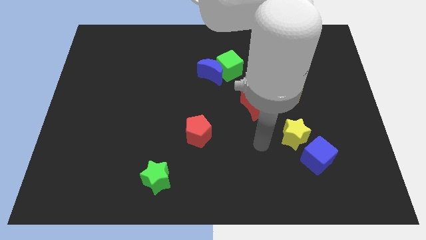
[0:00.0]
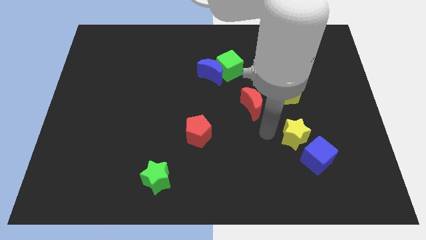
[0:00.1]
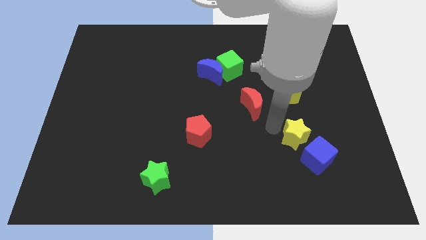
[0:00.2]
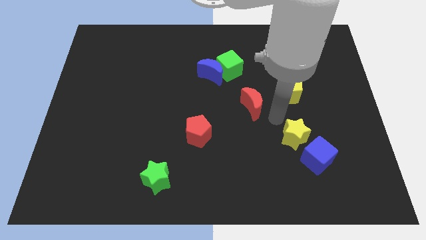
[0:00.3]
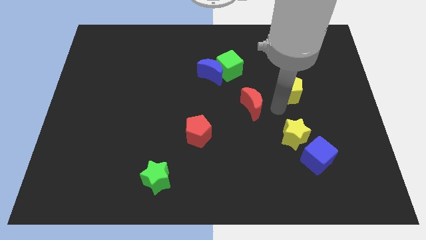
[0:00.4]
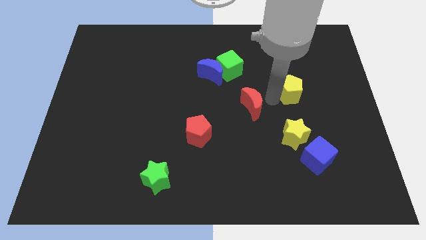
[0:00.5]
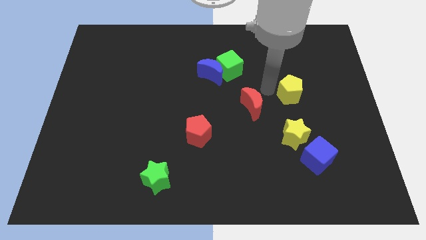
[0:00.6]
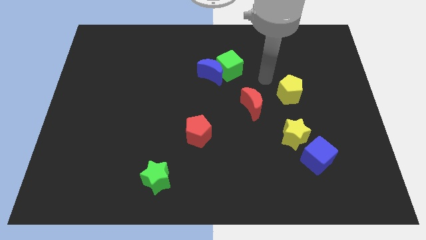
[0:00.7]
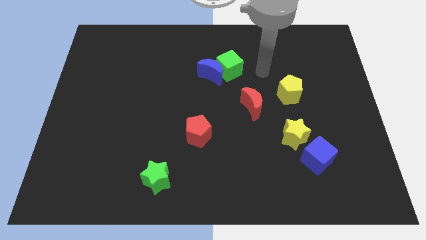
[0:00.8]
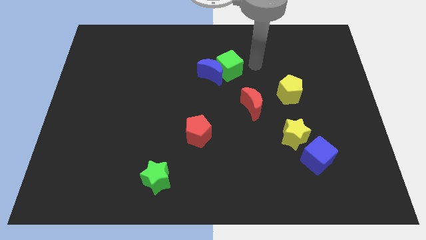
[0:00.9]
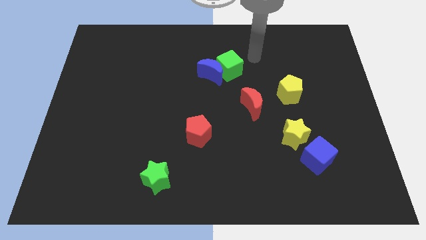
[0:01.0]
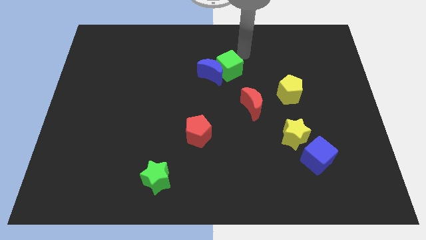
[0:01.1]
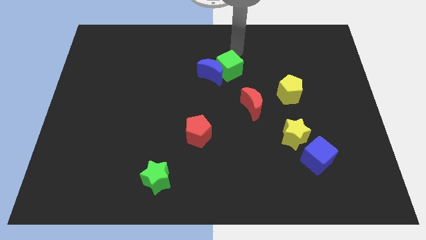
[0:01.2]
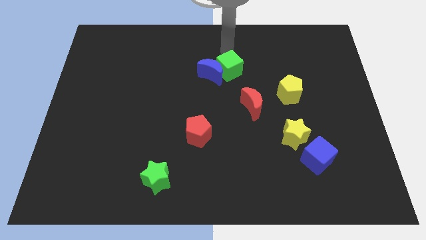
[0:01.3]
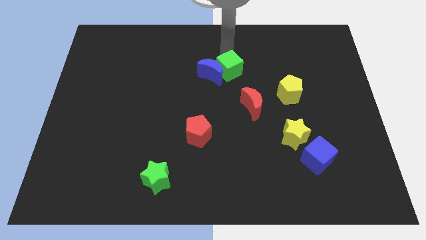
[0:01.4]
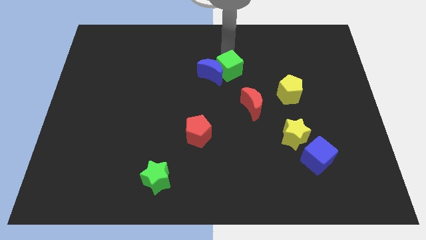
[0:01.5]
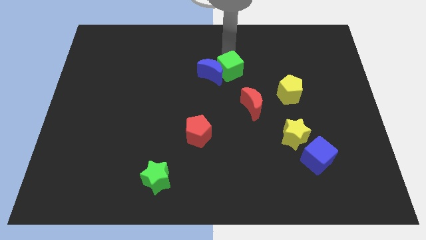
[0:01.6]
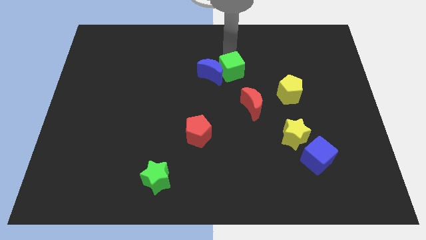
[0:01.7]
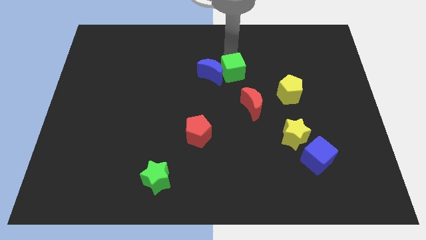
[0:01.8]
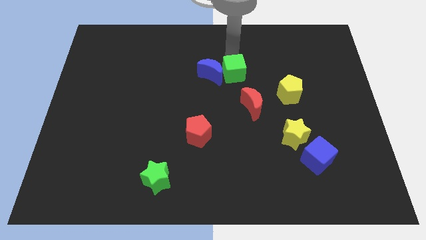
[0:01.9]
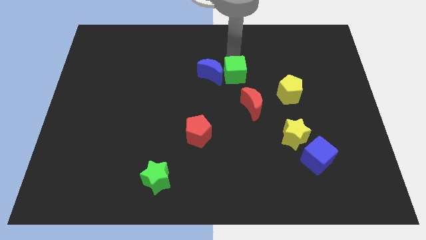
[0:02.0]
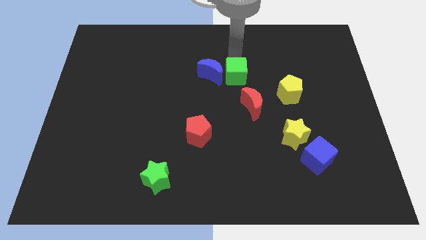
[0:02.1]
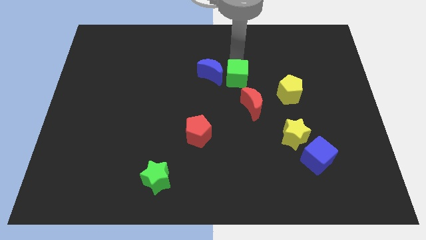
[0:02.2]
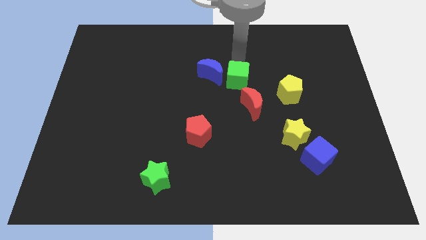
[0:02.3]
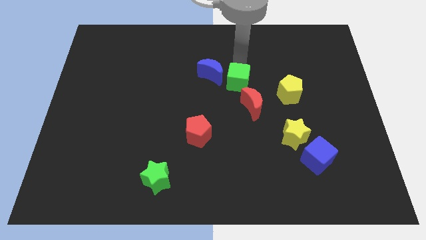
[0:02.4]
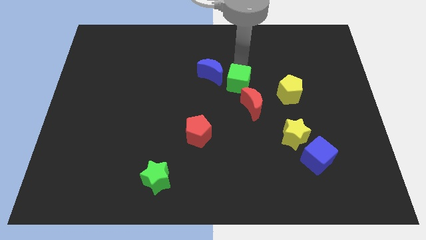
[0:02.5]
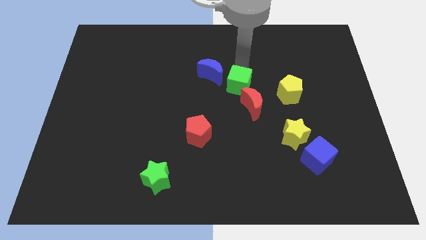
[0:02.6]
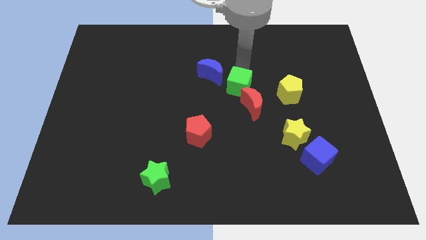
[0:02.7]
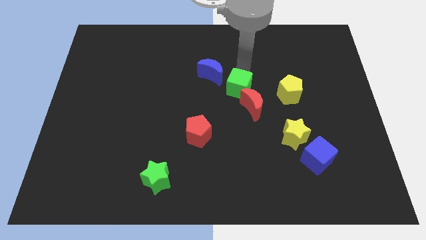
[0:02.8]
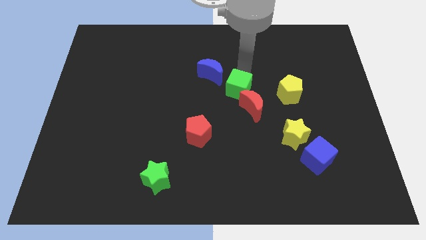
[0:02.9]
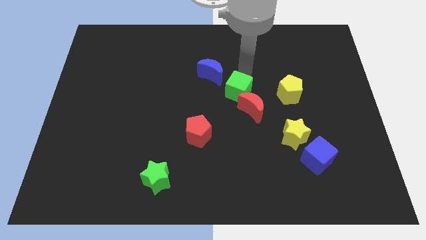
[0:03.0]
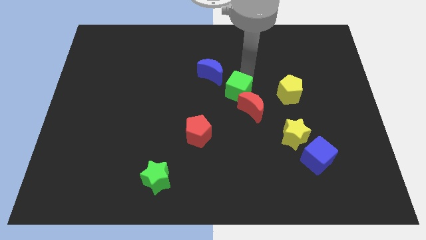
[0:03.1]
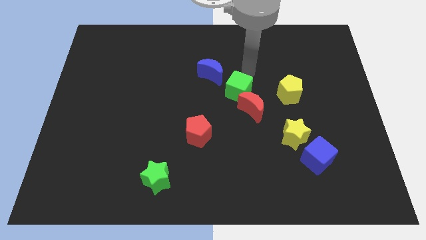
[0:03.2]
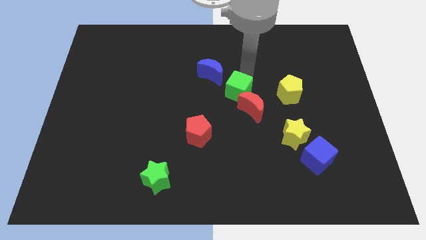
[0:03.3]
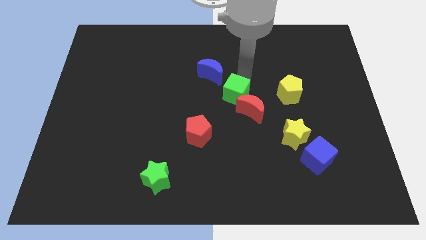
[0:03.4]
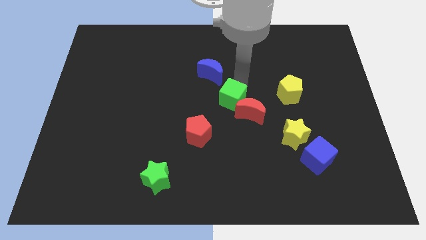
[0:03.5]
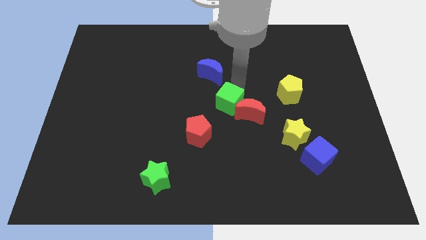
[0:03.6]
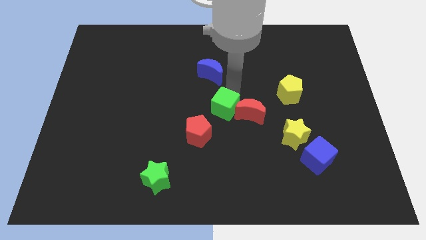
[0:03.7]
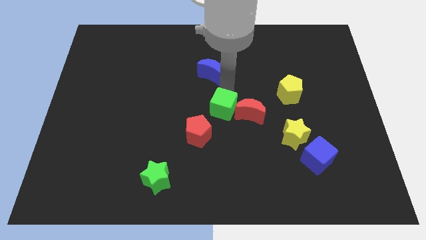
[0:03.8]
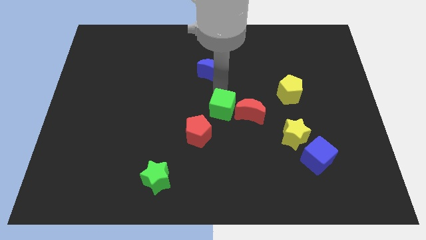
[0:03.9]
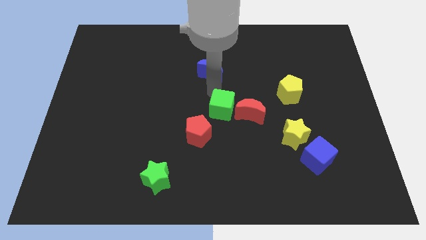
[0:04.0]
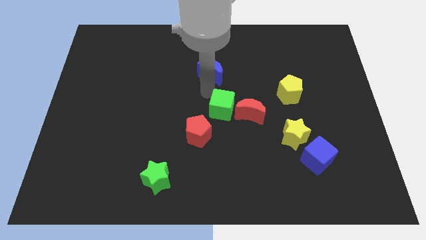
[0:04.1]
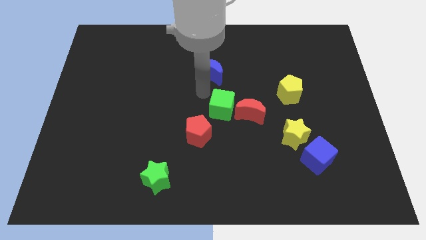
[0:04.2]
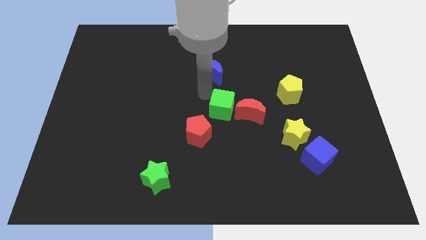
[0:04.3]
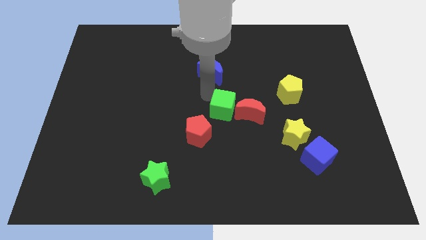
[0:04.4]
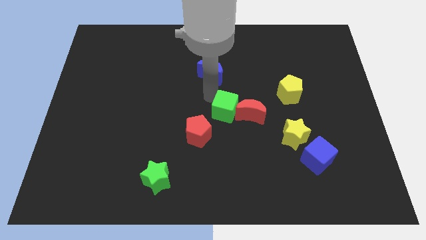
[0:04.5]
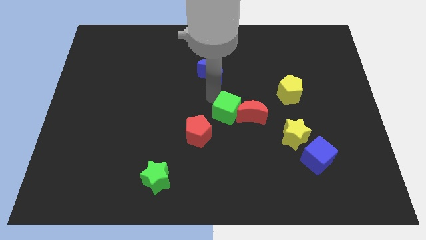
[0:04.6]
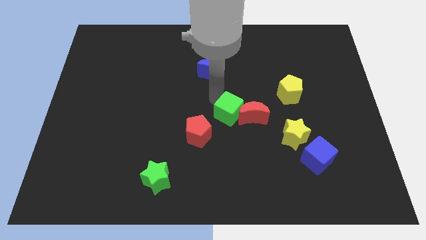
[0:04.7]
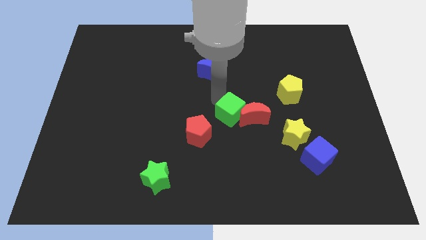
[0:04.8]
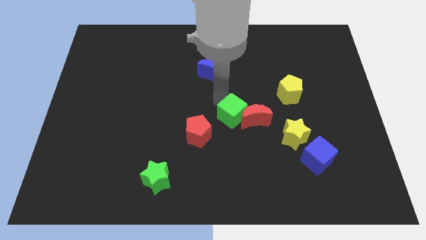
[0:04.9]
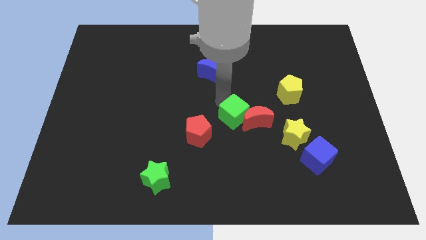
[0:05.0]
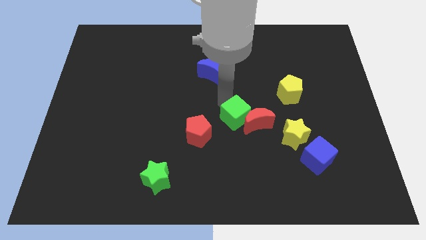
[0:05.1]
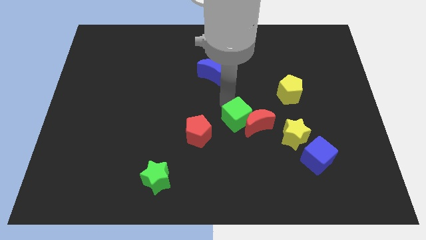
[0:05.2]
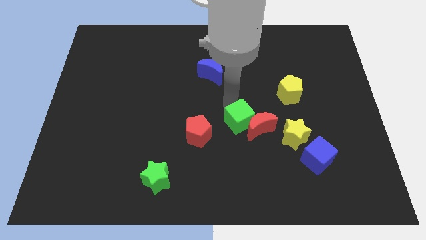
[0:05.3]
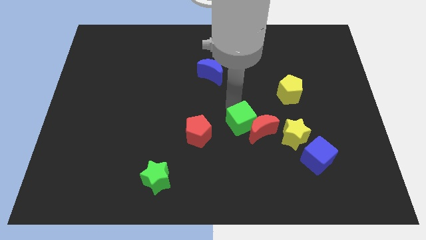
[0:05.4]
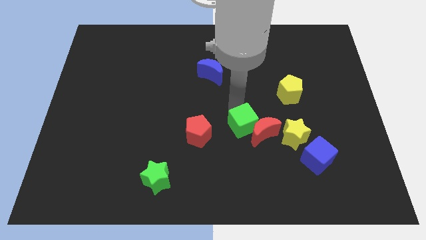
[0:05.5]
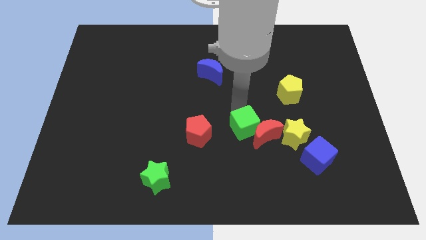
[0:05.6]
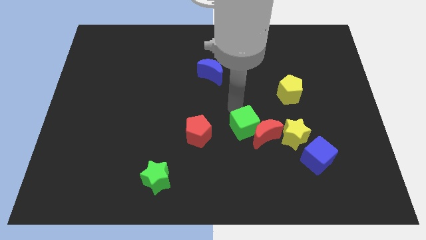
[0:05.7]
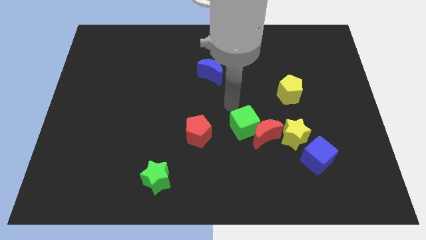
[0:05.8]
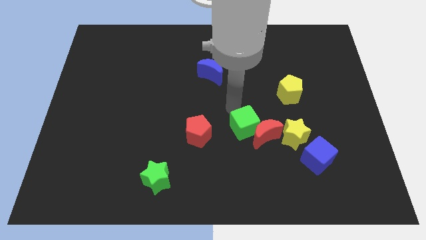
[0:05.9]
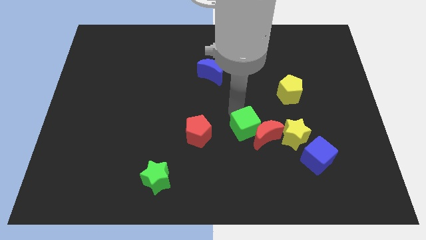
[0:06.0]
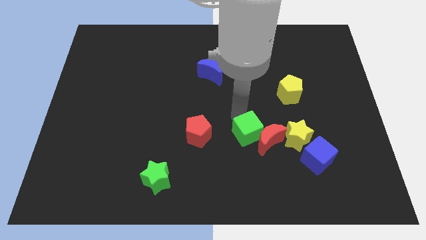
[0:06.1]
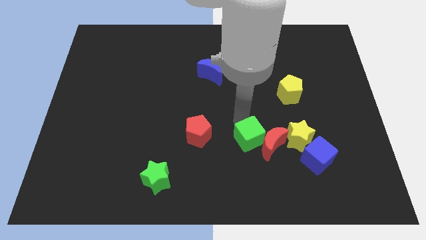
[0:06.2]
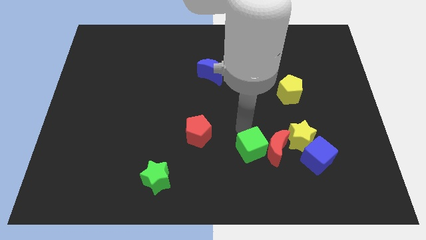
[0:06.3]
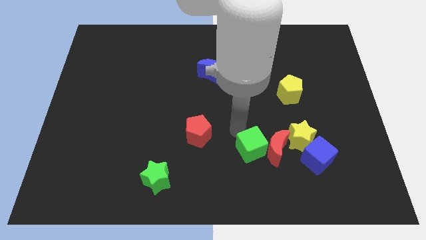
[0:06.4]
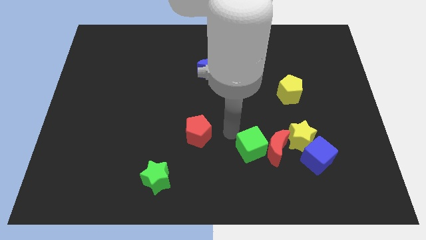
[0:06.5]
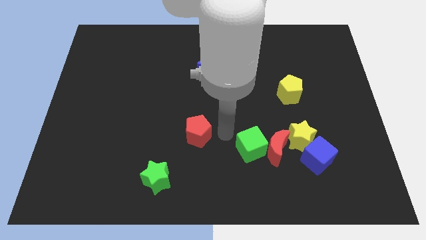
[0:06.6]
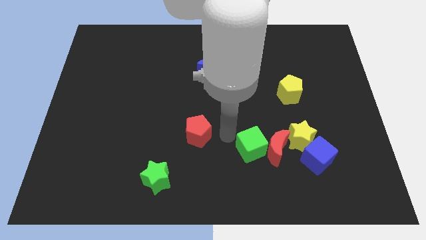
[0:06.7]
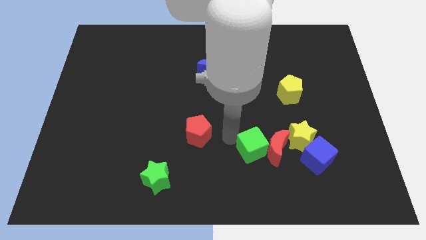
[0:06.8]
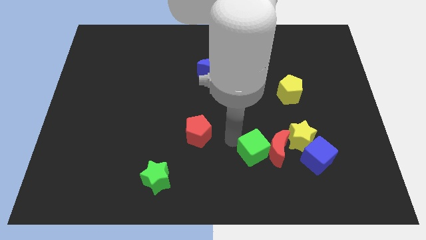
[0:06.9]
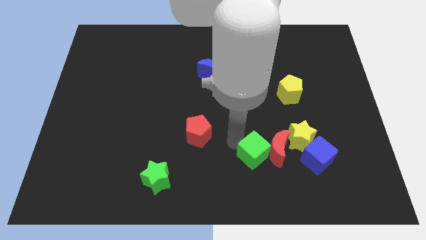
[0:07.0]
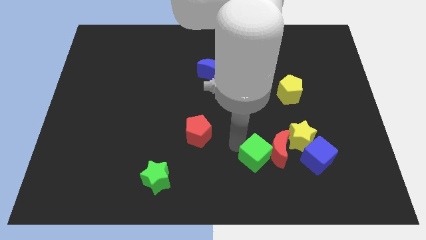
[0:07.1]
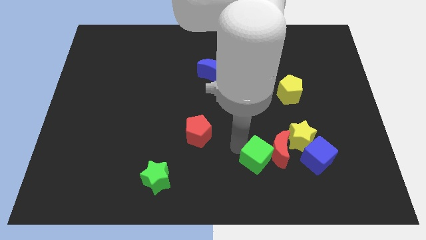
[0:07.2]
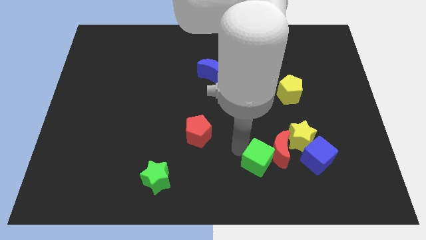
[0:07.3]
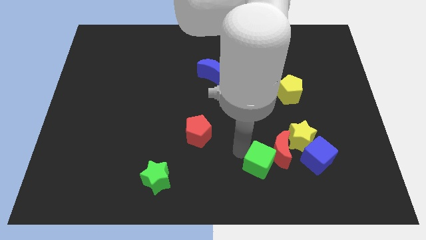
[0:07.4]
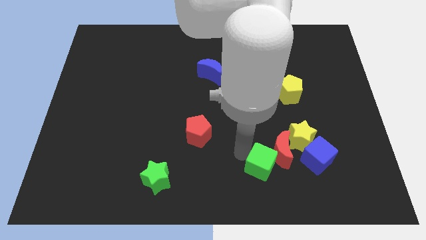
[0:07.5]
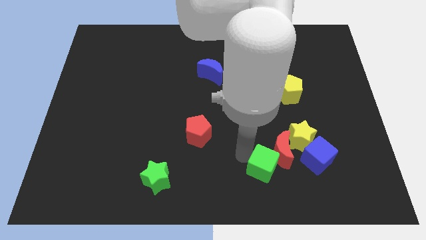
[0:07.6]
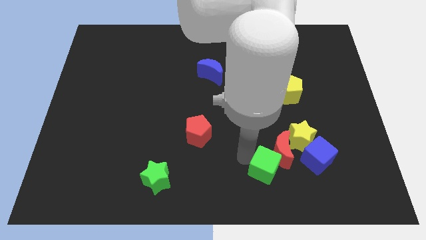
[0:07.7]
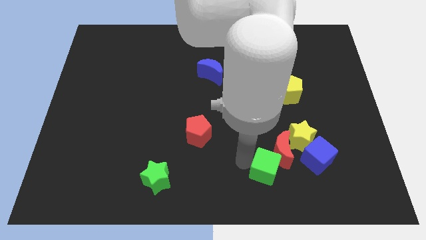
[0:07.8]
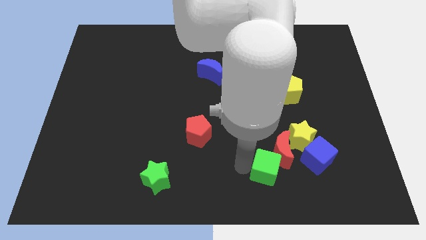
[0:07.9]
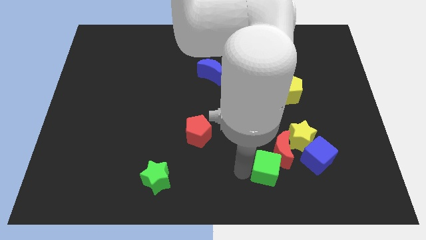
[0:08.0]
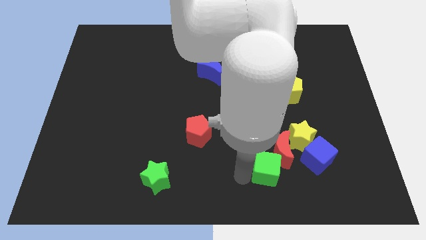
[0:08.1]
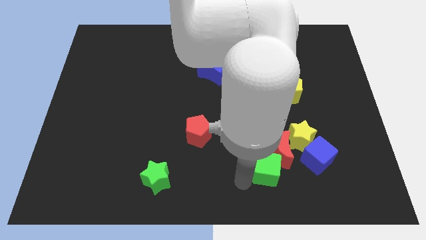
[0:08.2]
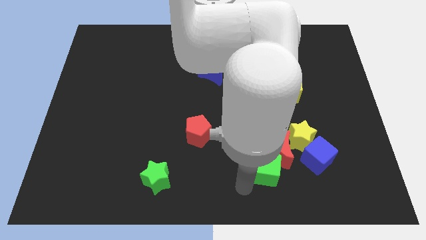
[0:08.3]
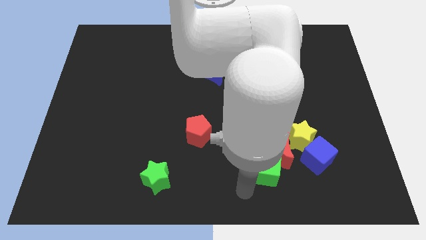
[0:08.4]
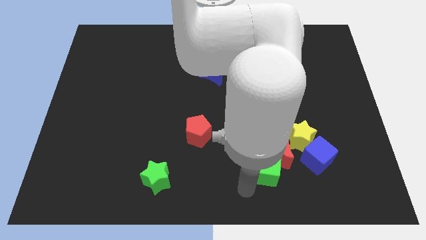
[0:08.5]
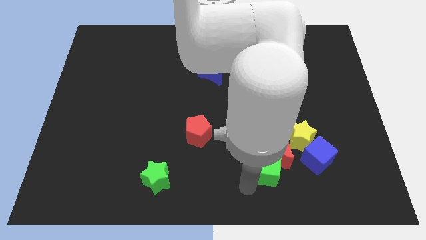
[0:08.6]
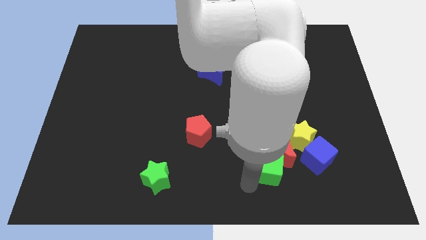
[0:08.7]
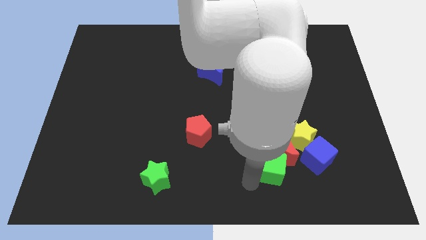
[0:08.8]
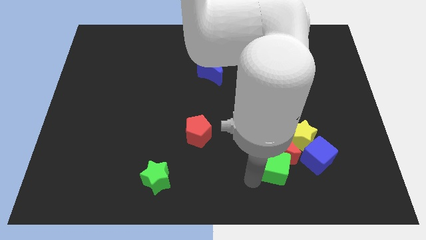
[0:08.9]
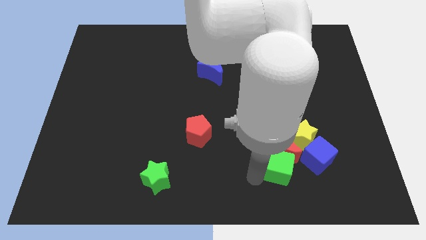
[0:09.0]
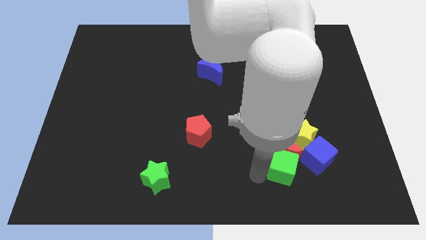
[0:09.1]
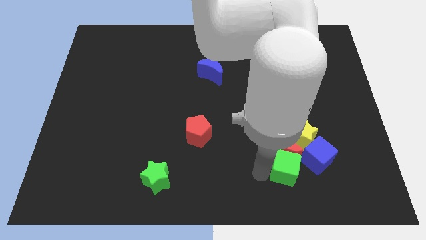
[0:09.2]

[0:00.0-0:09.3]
put the green cube to the bottom side of the yellow star
